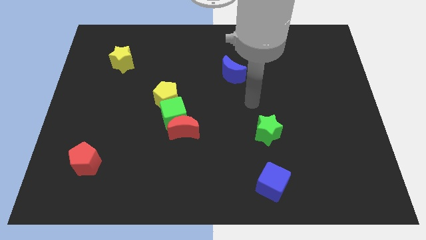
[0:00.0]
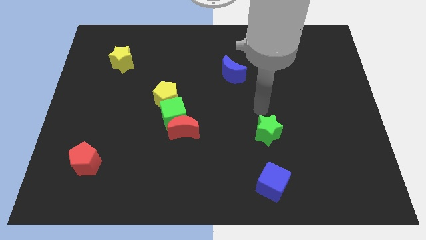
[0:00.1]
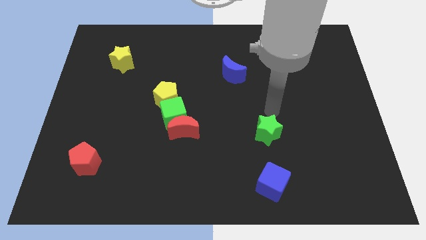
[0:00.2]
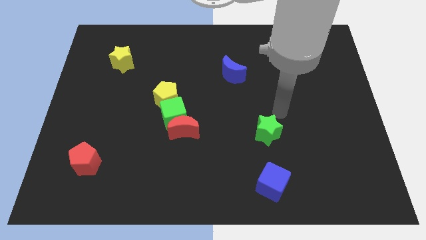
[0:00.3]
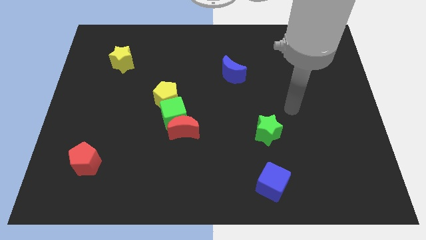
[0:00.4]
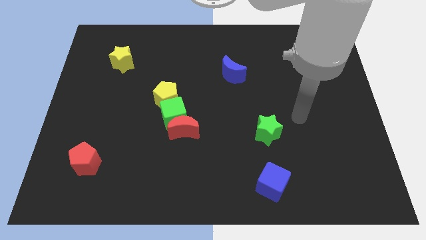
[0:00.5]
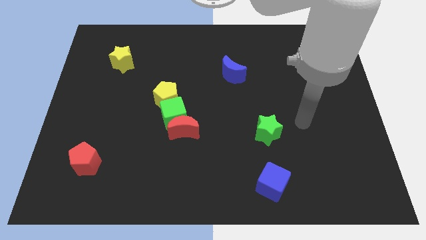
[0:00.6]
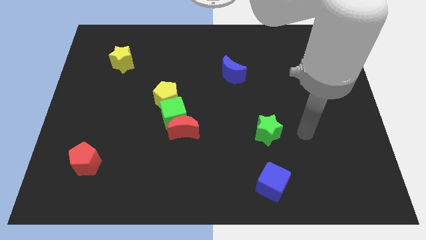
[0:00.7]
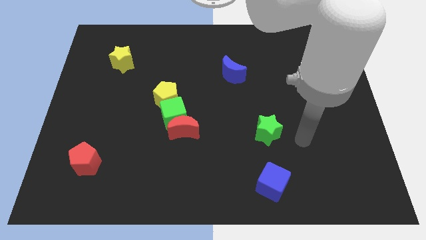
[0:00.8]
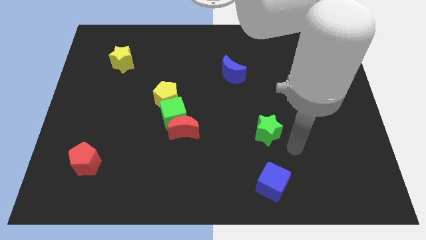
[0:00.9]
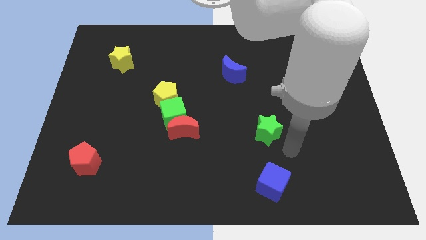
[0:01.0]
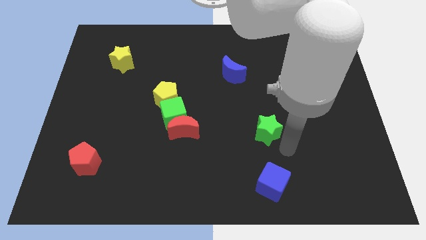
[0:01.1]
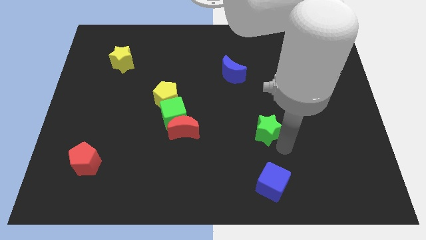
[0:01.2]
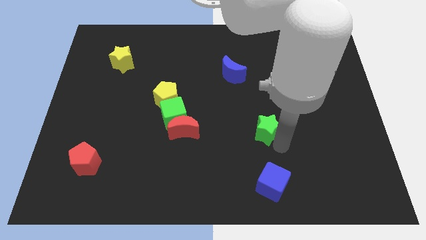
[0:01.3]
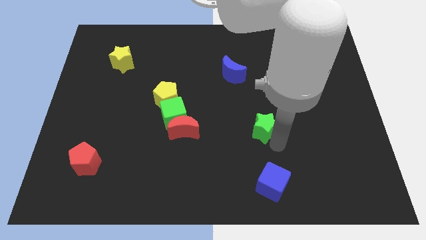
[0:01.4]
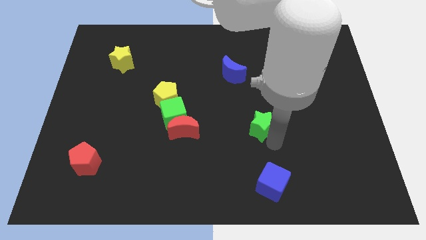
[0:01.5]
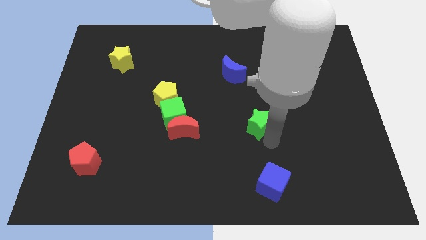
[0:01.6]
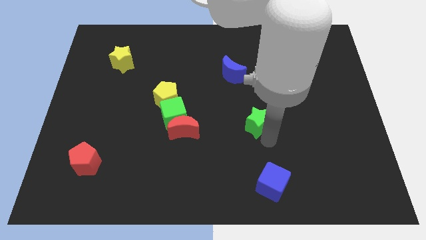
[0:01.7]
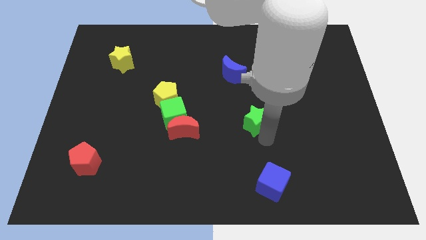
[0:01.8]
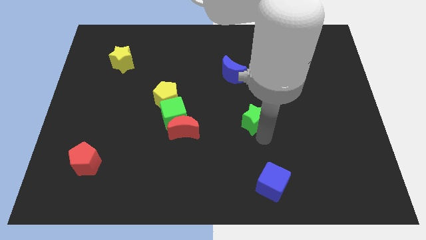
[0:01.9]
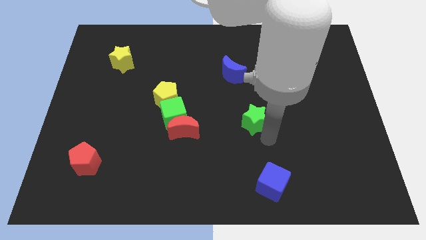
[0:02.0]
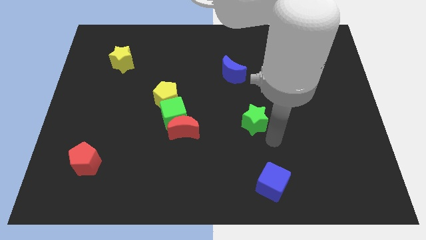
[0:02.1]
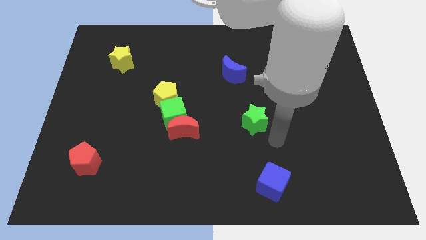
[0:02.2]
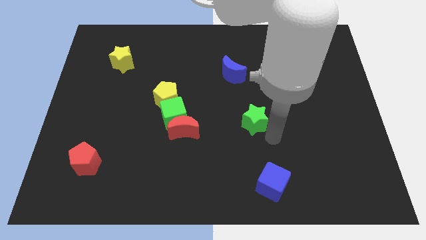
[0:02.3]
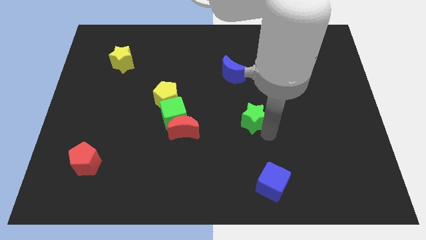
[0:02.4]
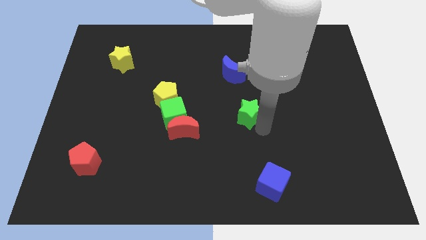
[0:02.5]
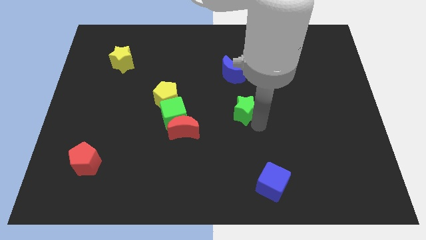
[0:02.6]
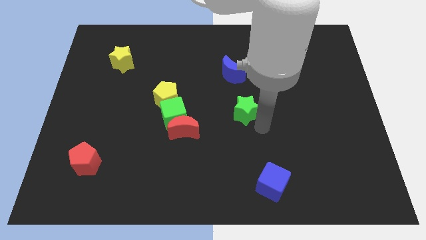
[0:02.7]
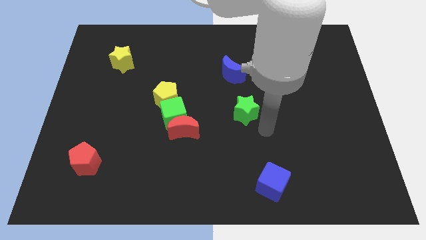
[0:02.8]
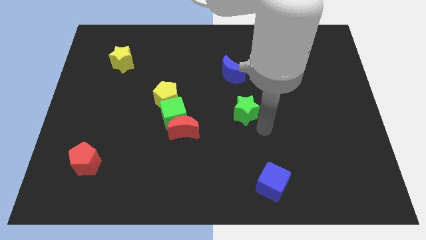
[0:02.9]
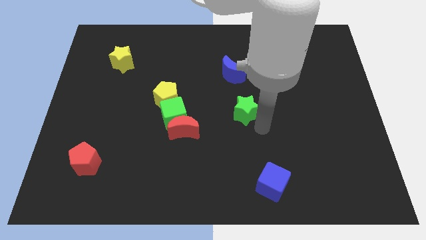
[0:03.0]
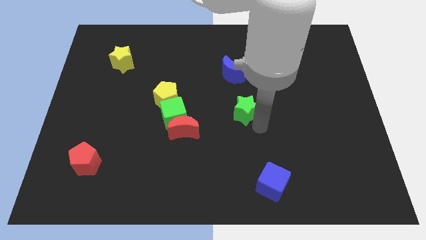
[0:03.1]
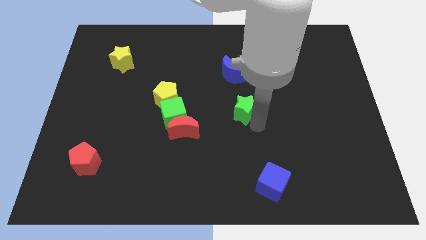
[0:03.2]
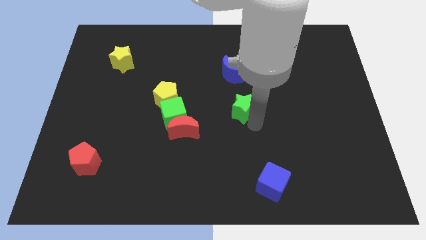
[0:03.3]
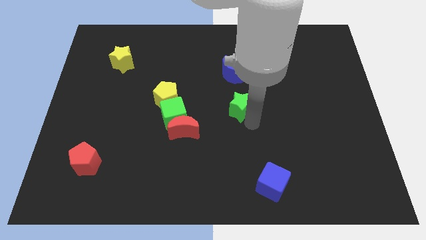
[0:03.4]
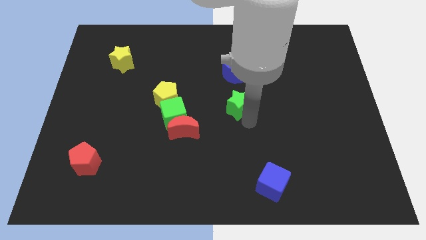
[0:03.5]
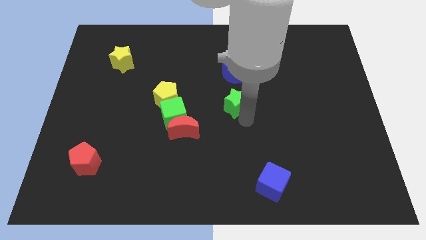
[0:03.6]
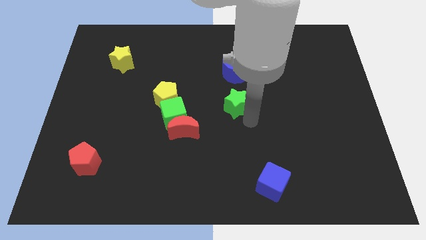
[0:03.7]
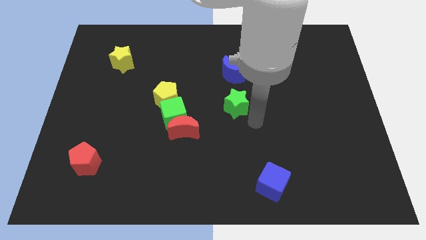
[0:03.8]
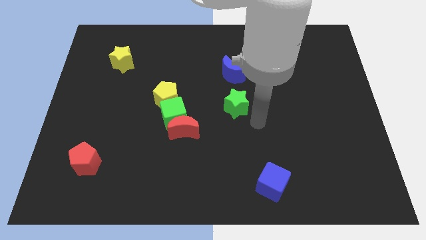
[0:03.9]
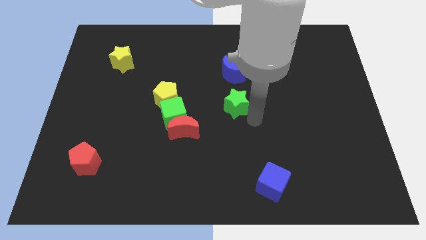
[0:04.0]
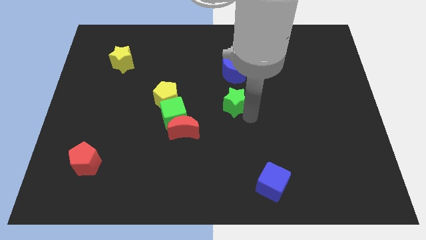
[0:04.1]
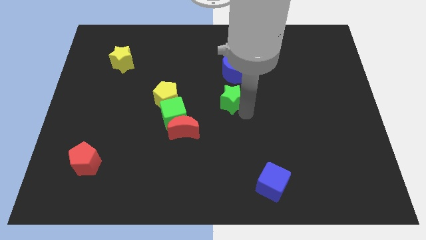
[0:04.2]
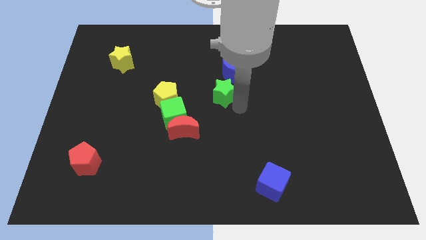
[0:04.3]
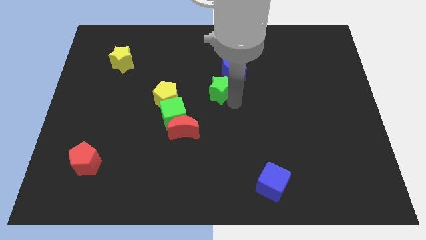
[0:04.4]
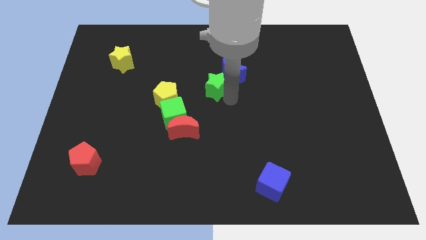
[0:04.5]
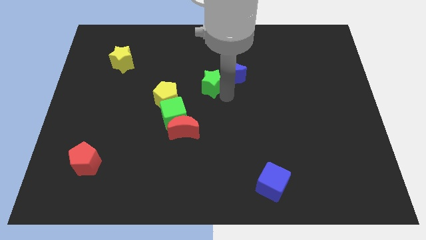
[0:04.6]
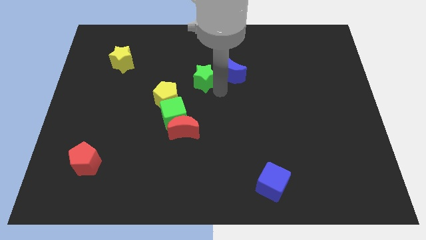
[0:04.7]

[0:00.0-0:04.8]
push the green star up and left diagonally

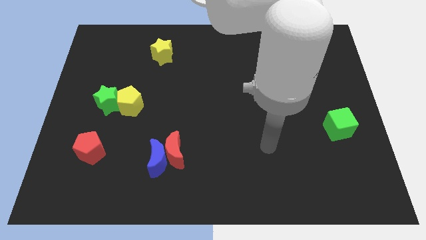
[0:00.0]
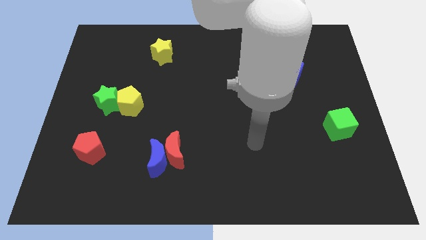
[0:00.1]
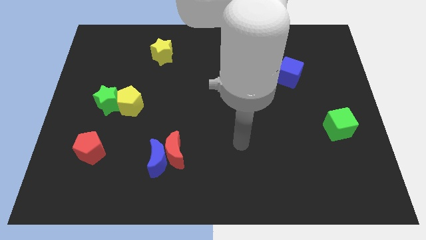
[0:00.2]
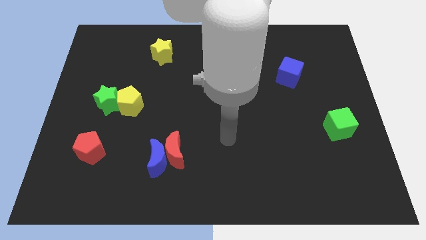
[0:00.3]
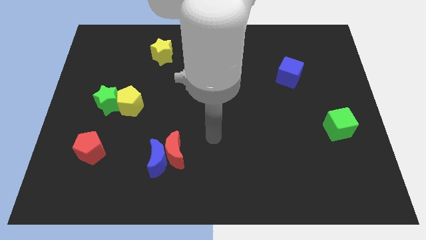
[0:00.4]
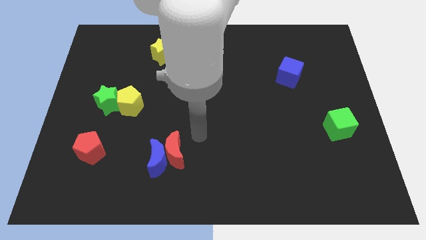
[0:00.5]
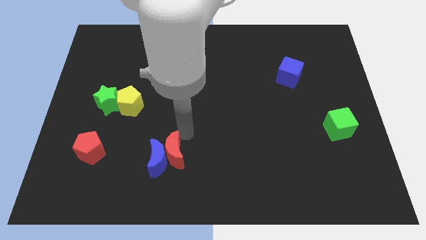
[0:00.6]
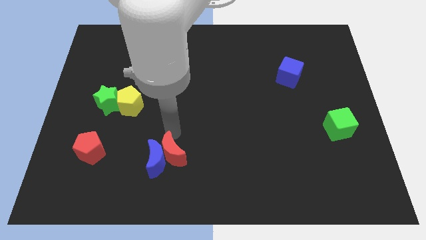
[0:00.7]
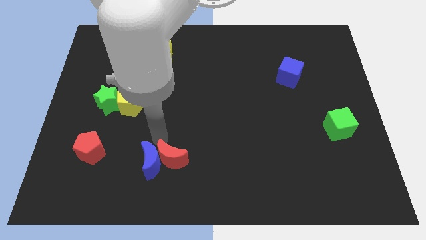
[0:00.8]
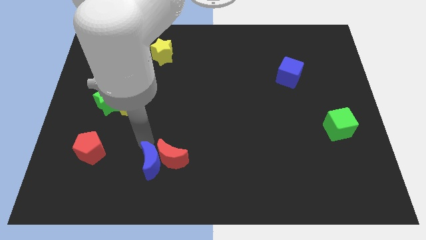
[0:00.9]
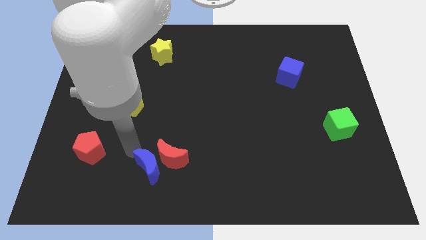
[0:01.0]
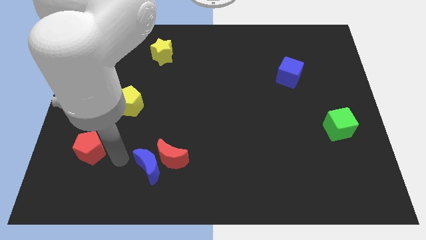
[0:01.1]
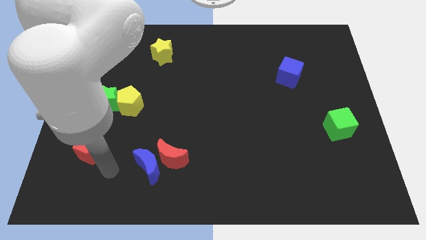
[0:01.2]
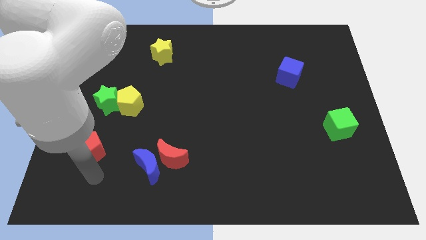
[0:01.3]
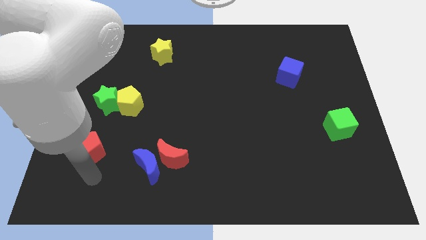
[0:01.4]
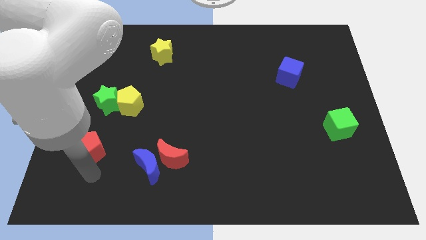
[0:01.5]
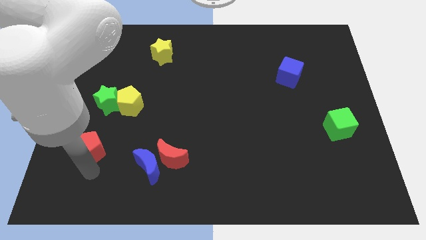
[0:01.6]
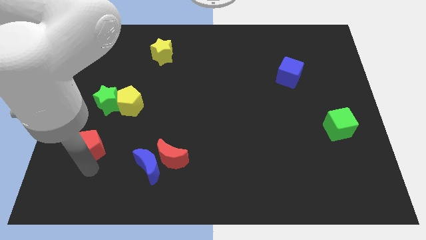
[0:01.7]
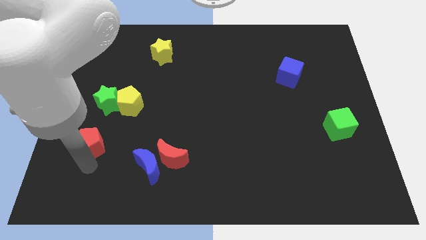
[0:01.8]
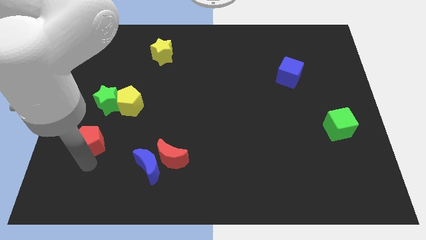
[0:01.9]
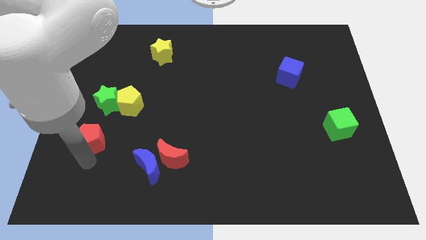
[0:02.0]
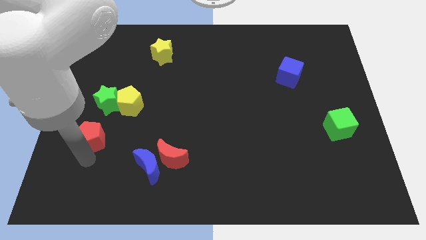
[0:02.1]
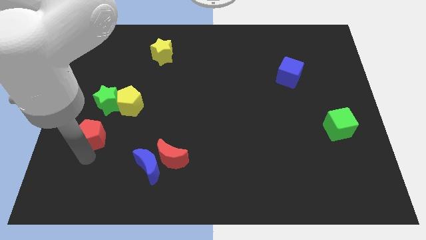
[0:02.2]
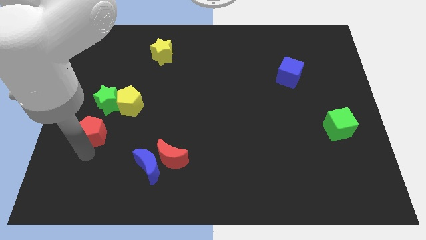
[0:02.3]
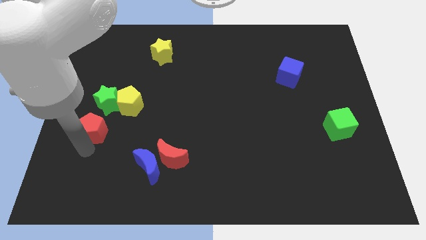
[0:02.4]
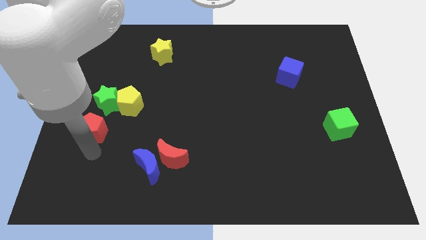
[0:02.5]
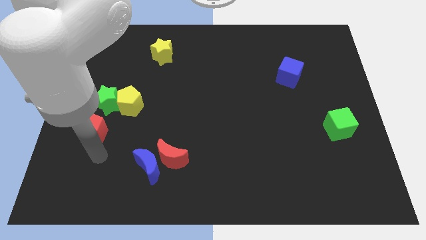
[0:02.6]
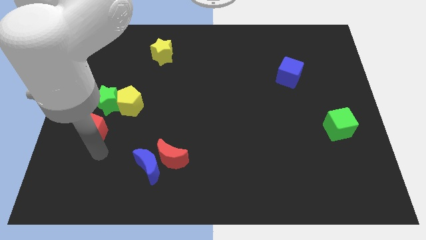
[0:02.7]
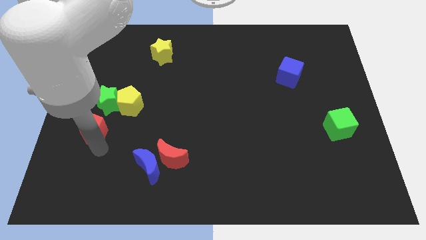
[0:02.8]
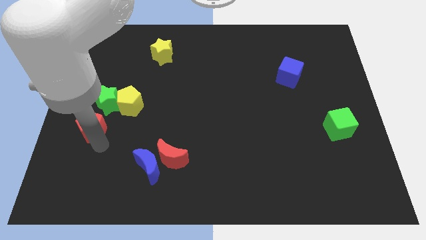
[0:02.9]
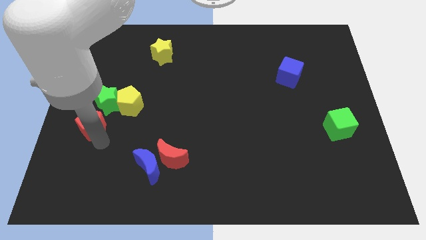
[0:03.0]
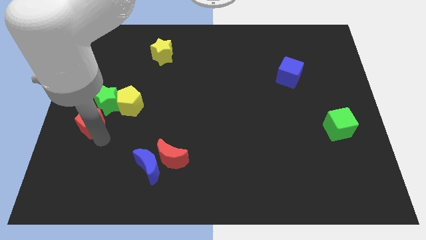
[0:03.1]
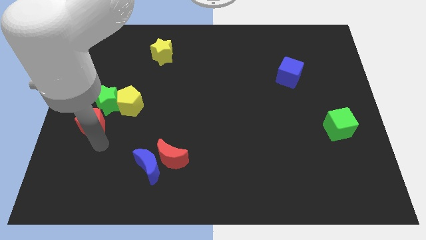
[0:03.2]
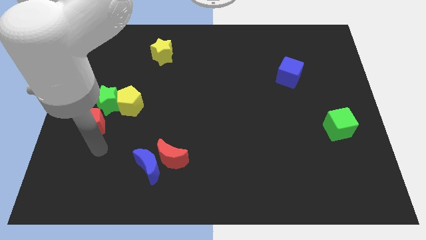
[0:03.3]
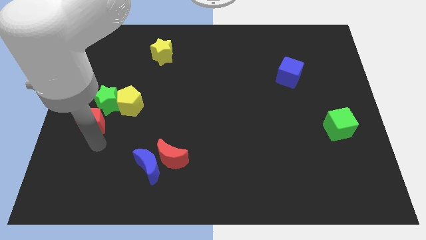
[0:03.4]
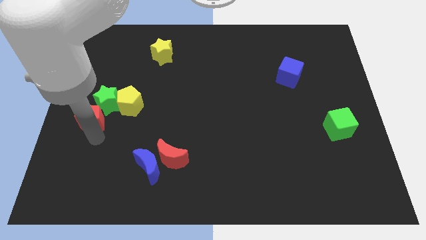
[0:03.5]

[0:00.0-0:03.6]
move the red pentagon slightly up
